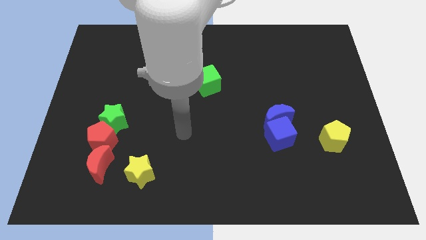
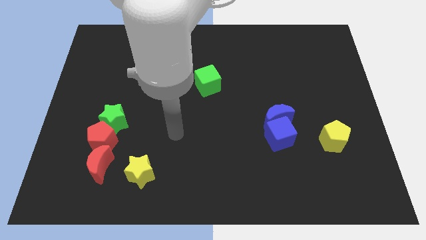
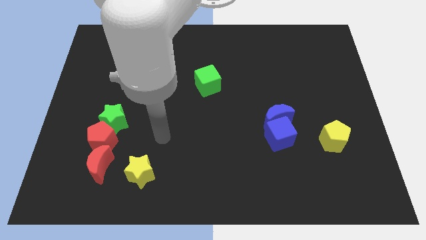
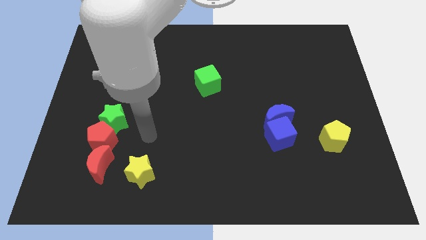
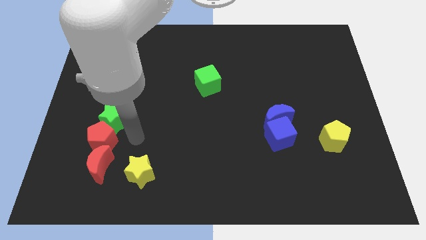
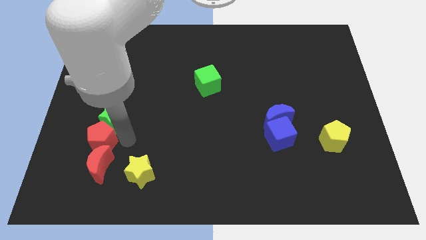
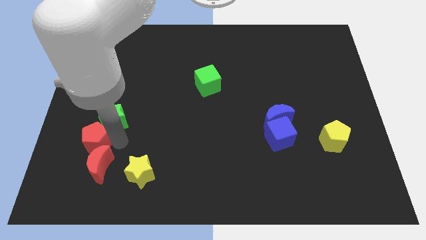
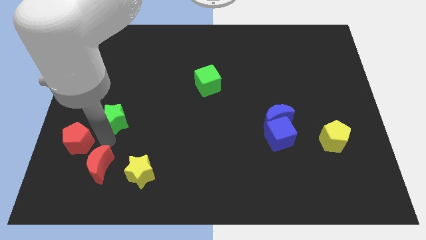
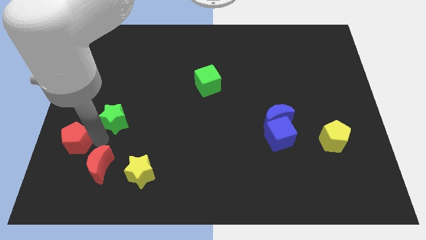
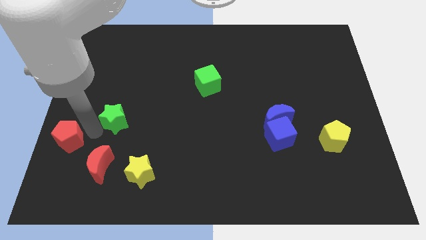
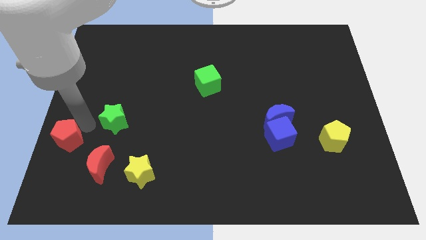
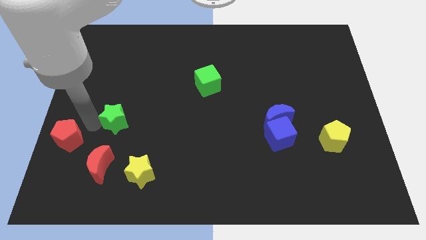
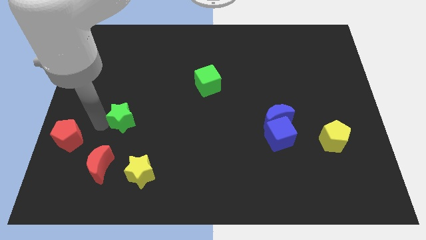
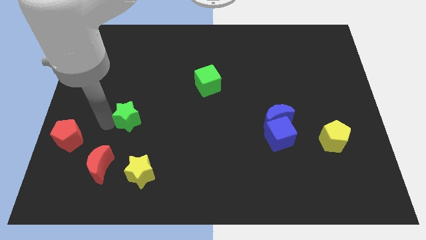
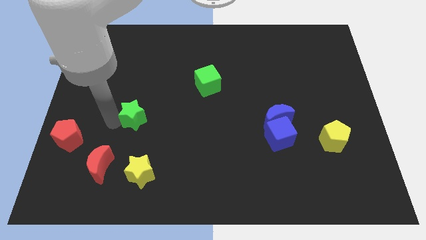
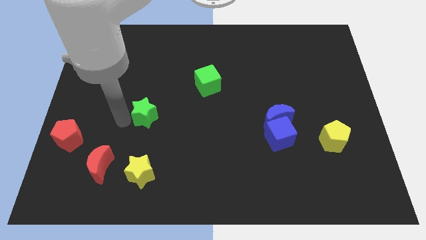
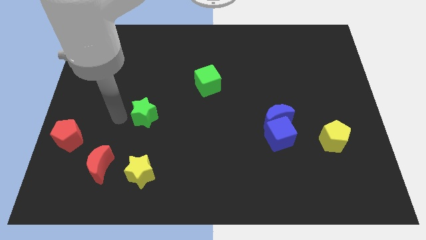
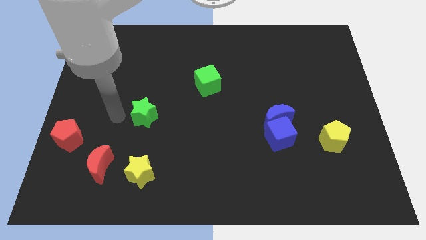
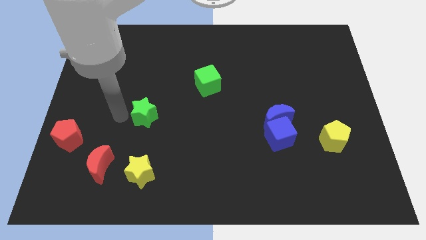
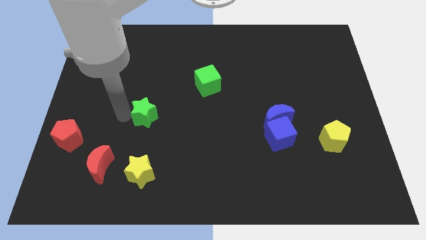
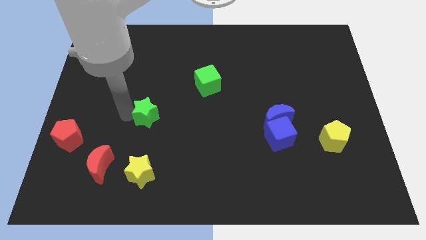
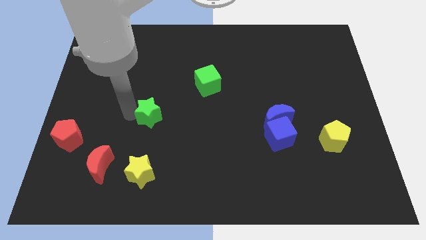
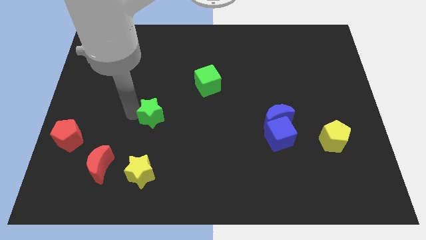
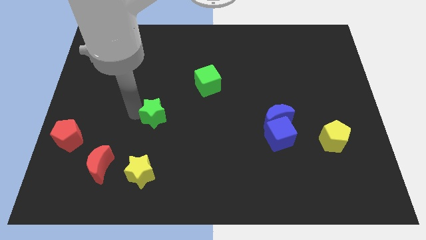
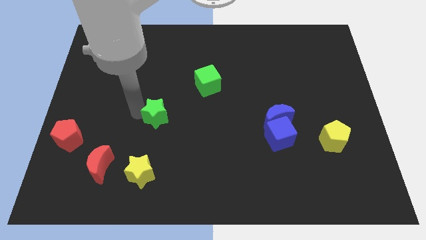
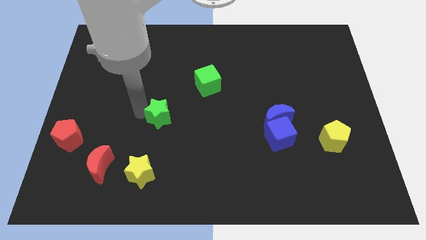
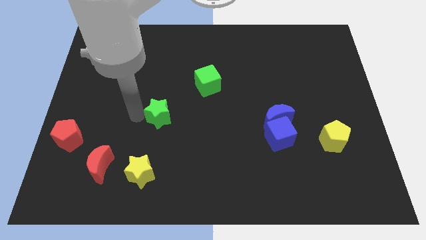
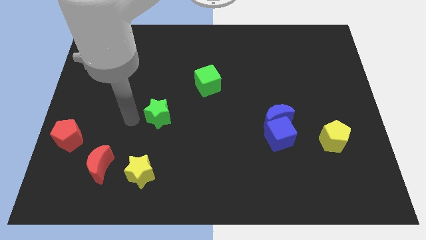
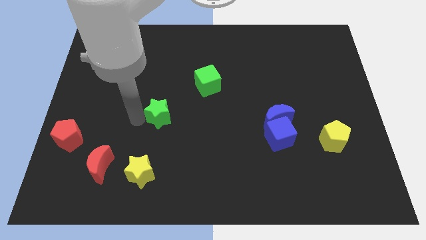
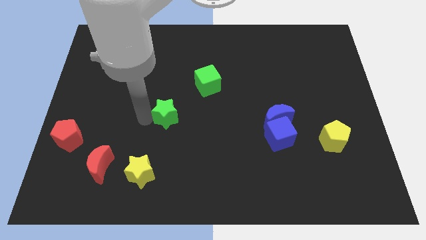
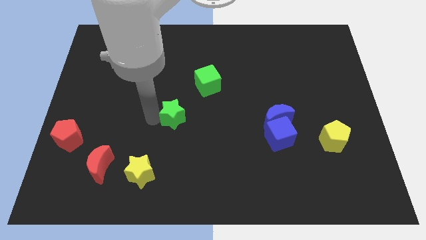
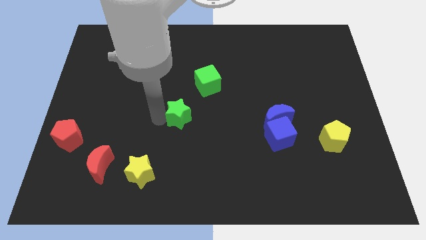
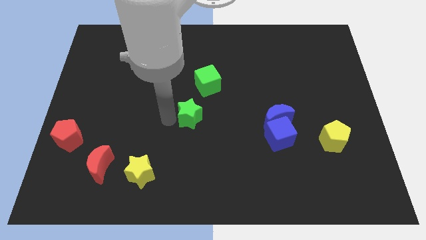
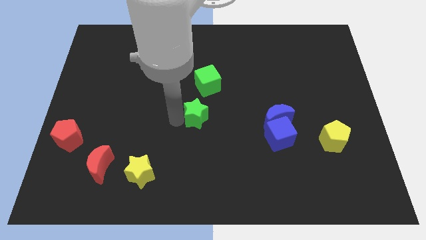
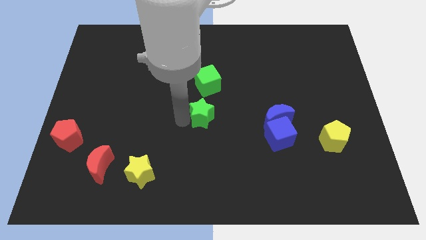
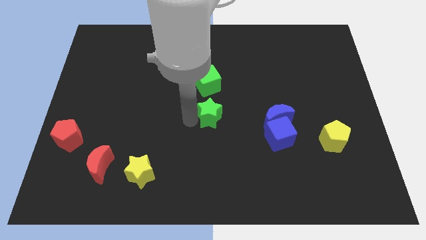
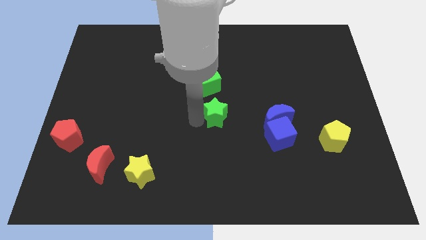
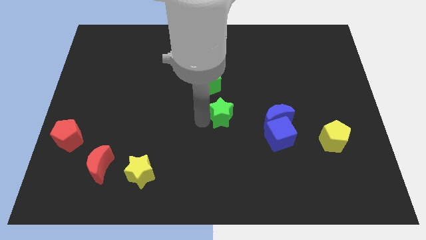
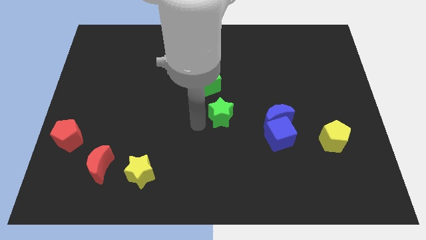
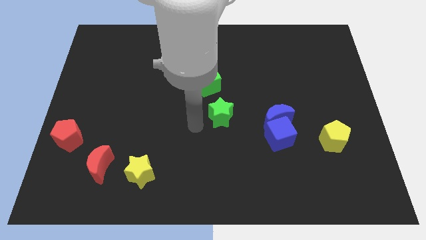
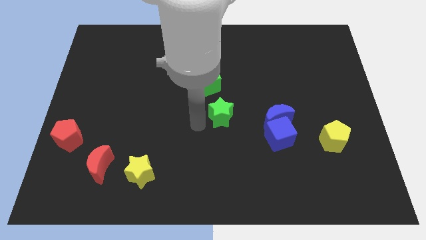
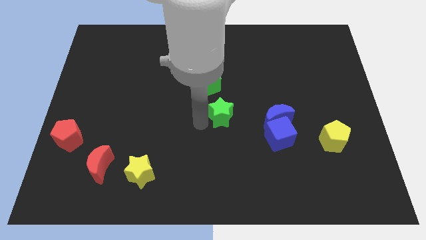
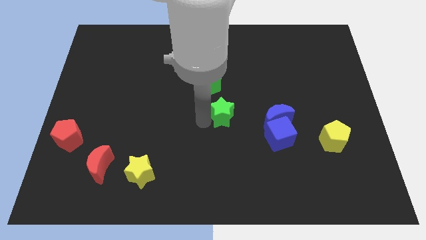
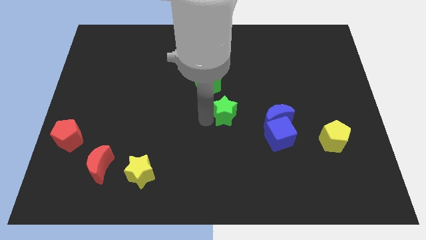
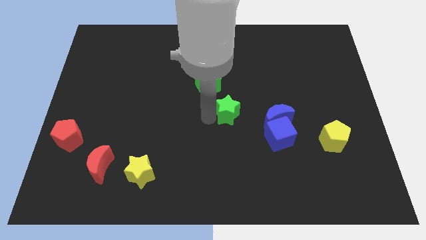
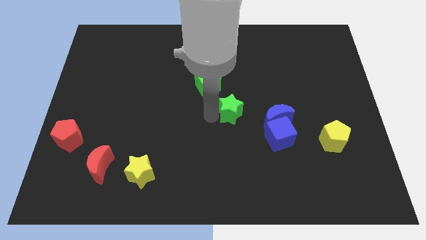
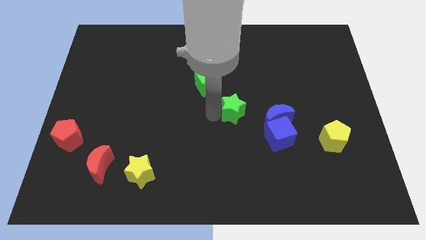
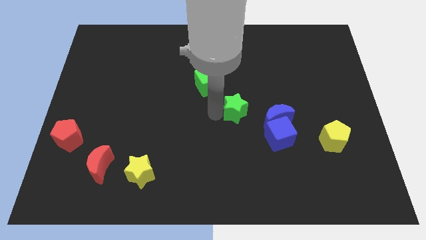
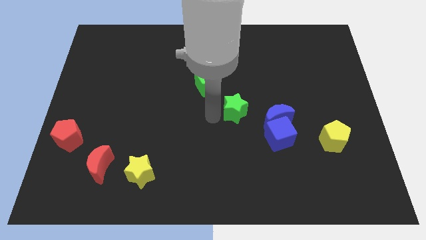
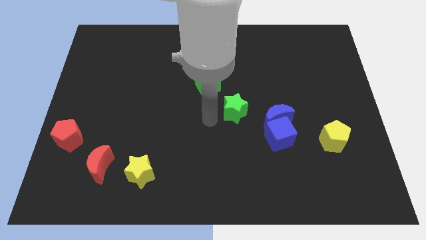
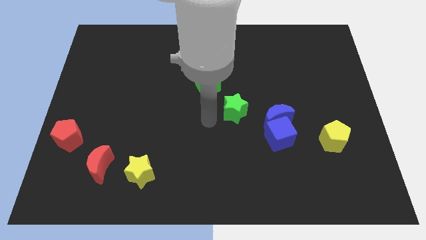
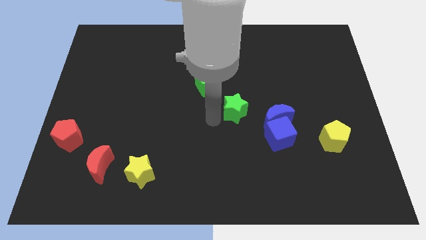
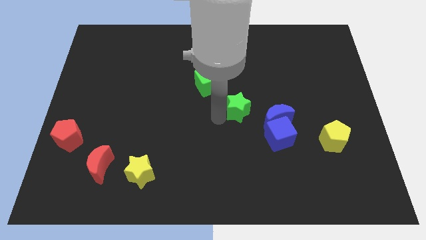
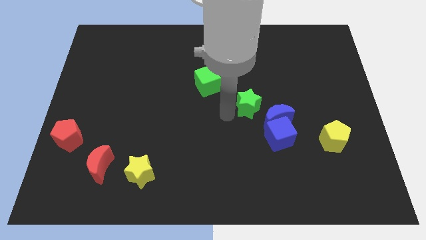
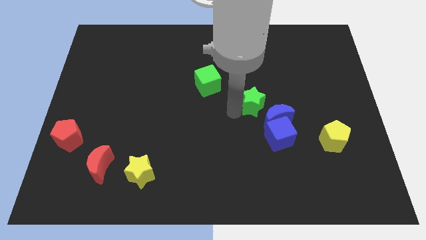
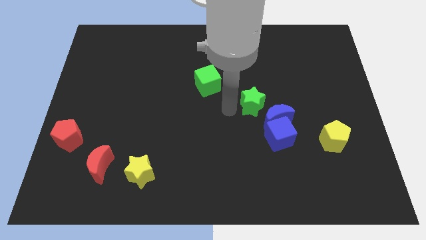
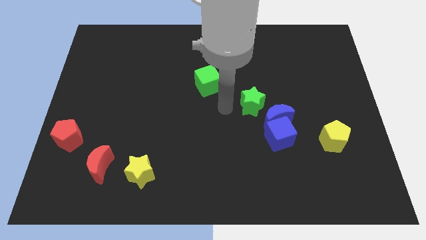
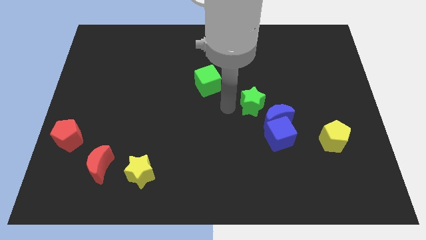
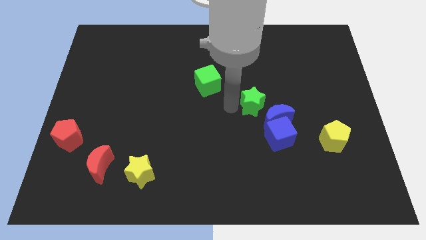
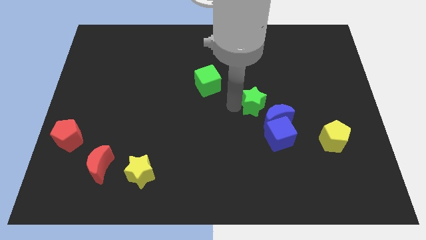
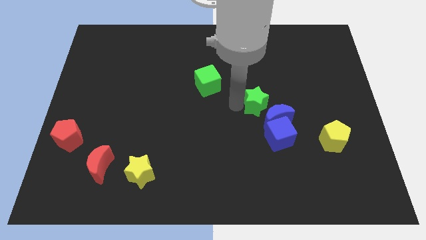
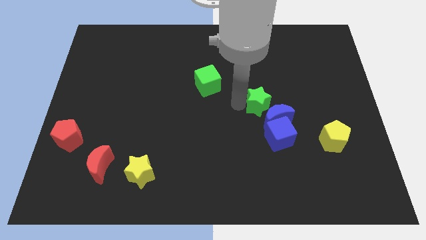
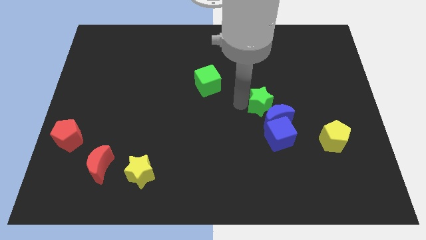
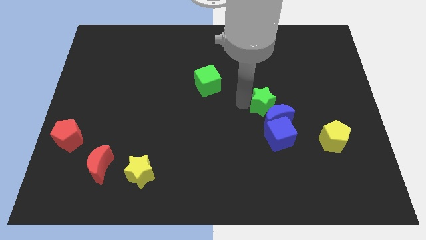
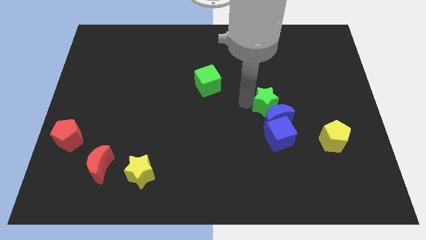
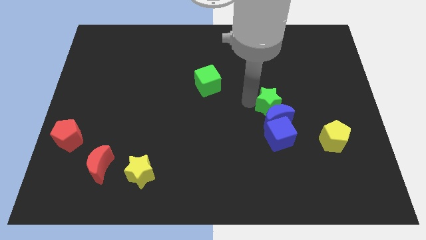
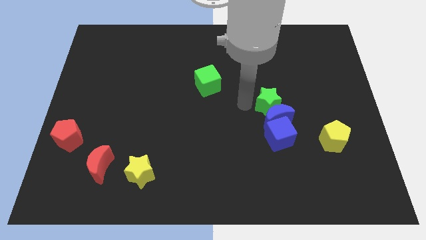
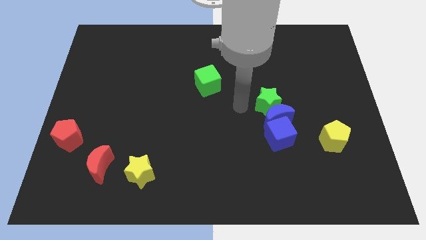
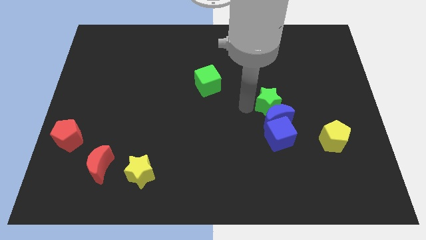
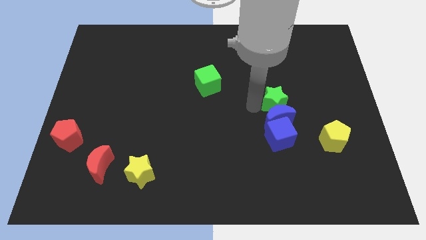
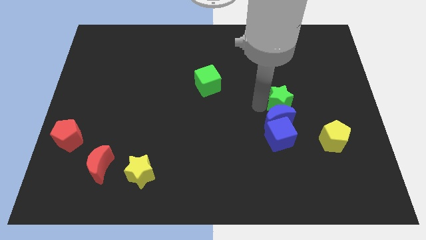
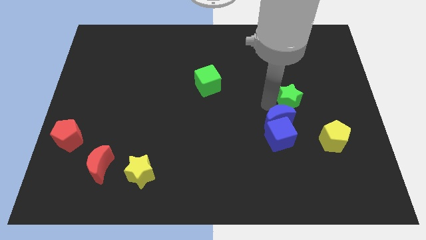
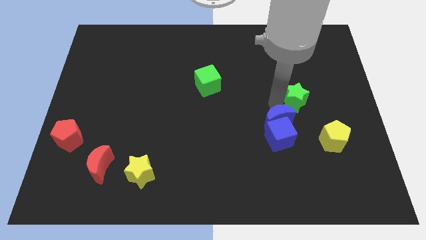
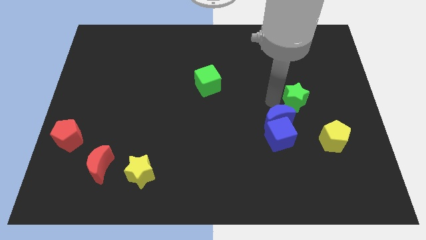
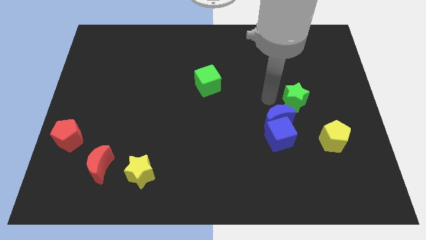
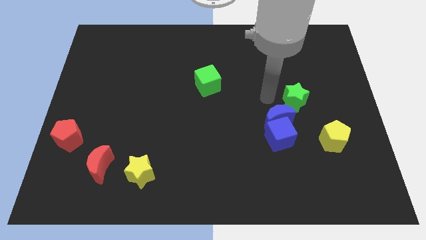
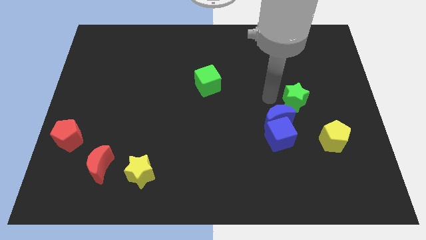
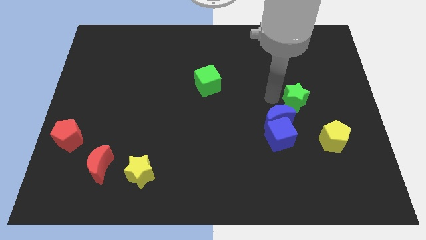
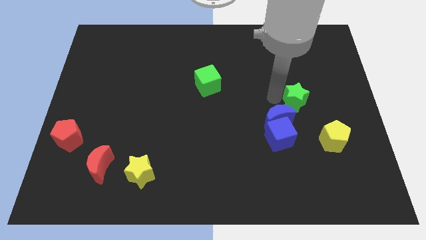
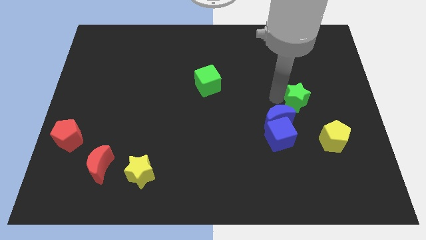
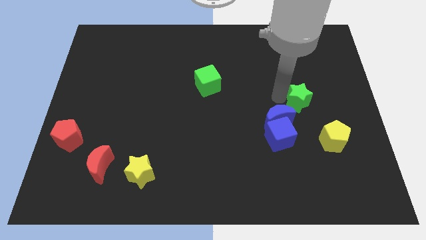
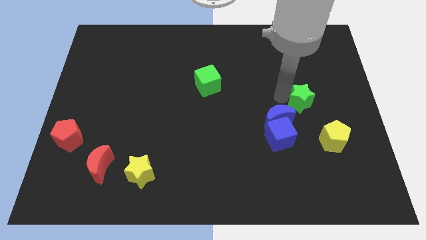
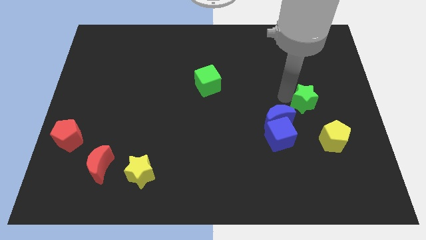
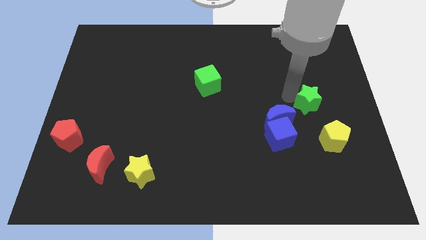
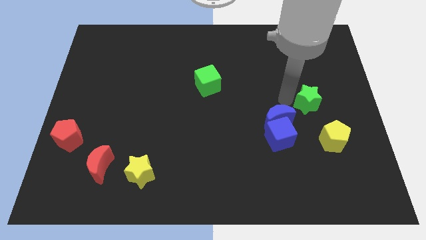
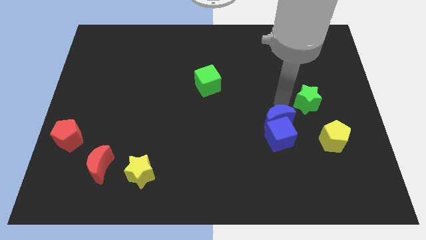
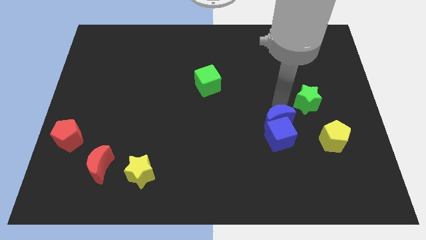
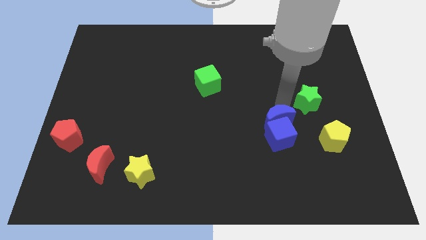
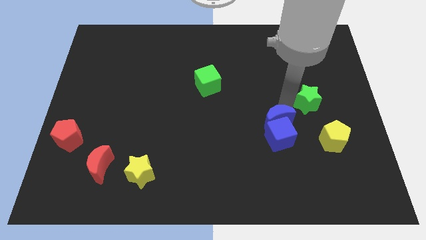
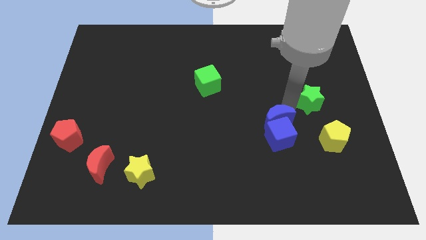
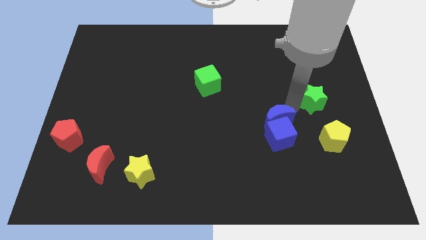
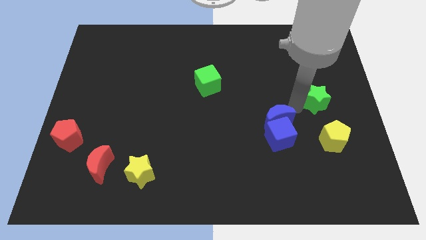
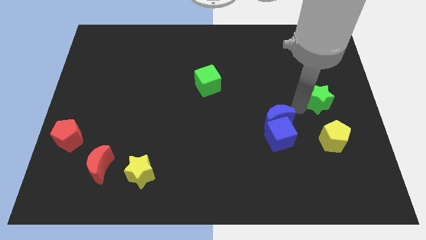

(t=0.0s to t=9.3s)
push the green star to the center right
